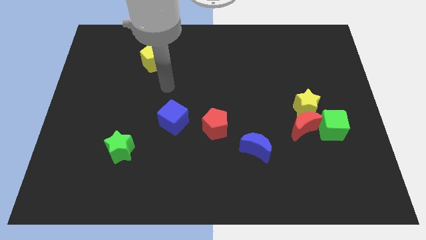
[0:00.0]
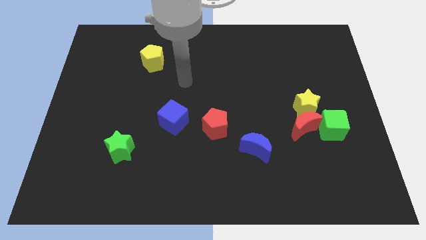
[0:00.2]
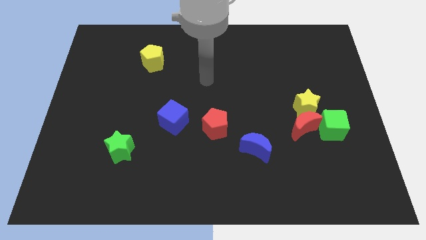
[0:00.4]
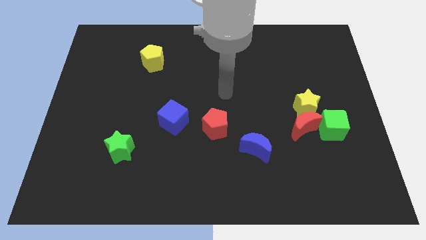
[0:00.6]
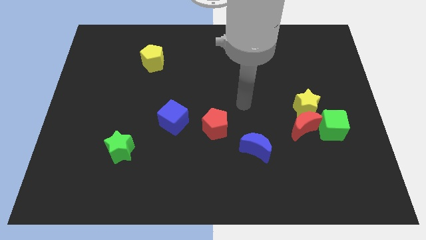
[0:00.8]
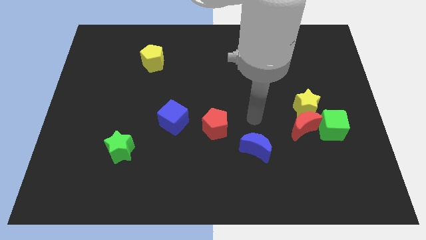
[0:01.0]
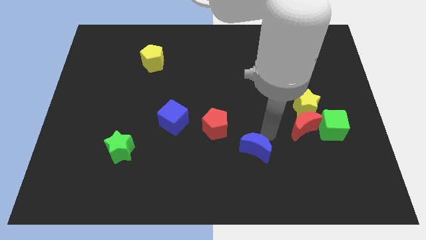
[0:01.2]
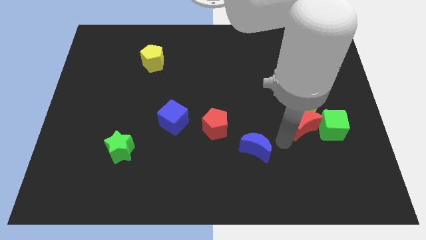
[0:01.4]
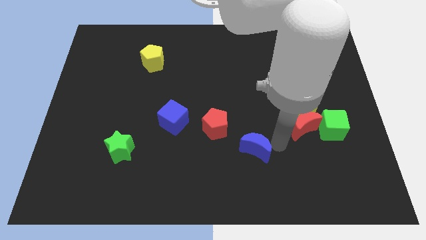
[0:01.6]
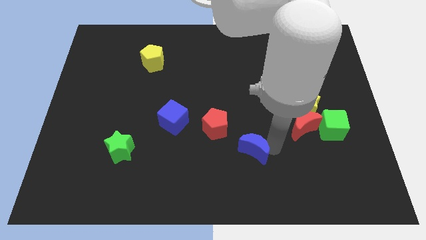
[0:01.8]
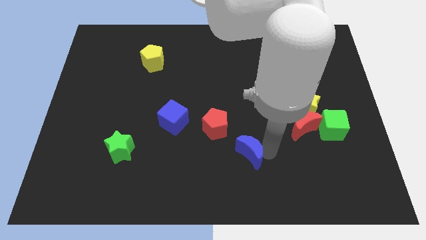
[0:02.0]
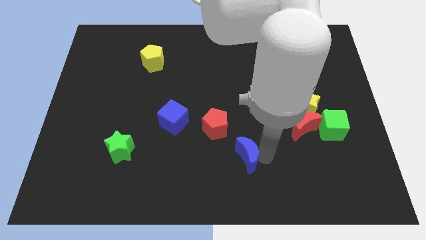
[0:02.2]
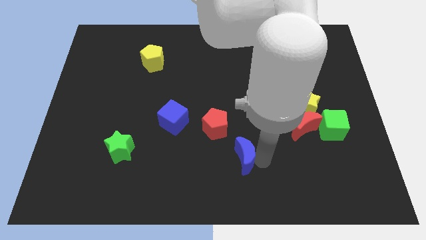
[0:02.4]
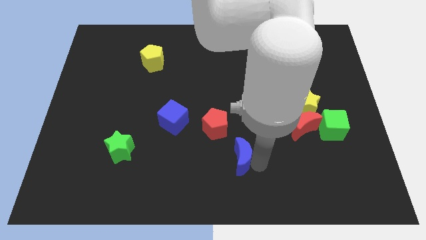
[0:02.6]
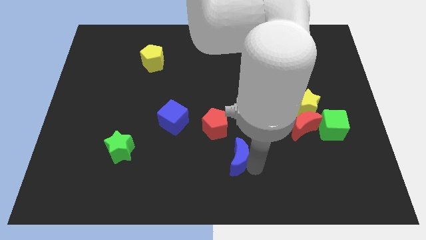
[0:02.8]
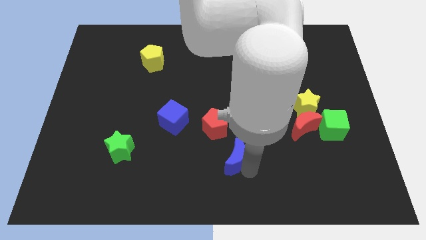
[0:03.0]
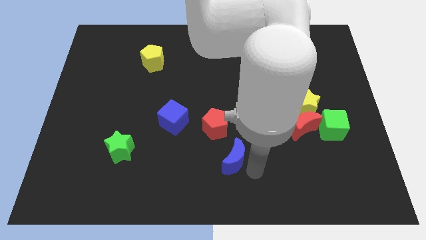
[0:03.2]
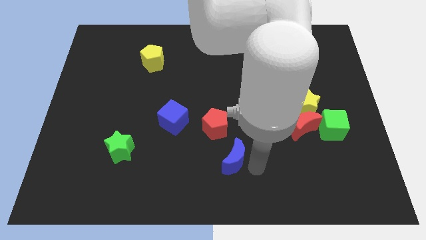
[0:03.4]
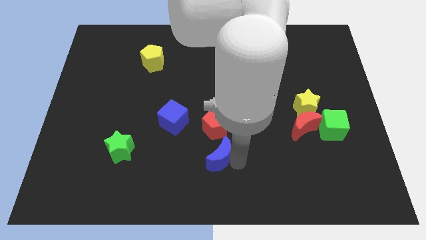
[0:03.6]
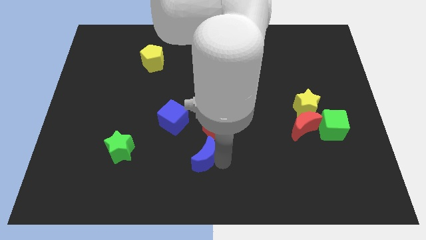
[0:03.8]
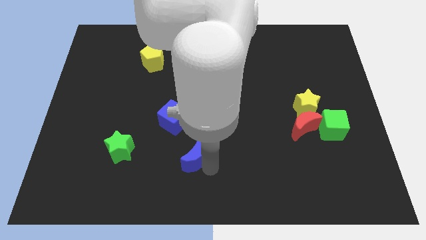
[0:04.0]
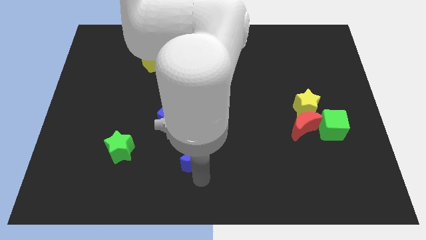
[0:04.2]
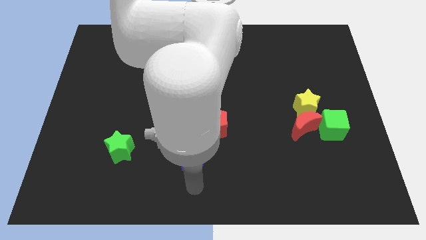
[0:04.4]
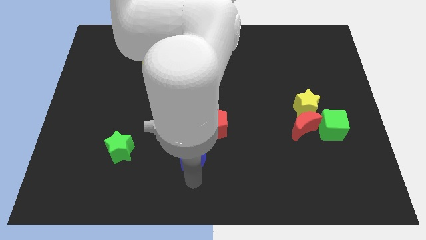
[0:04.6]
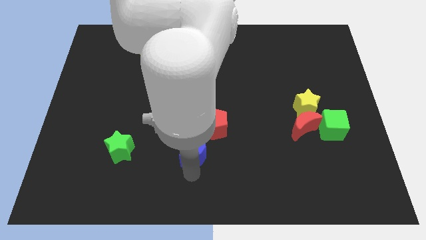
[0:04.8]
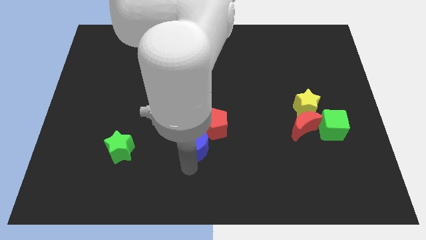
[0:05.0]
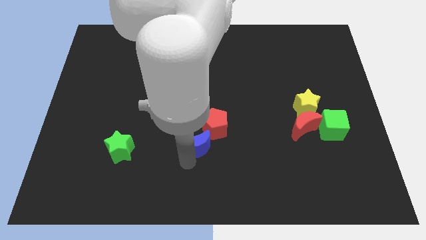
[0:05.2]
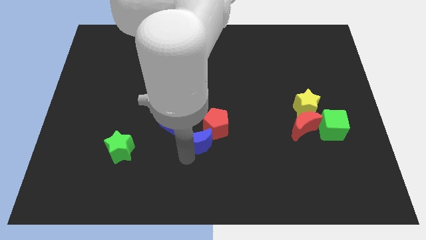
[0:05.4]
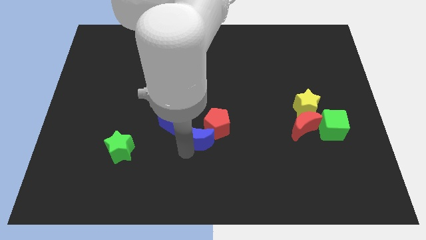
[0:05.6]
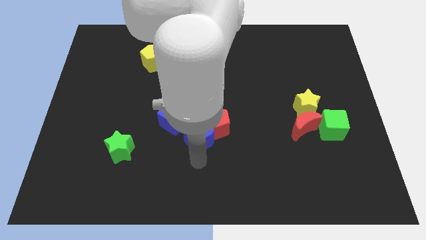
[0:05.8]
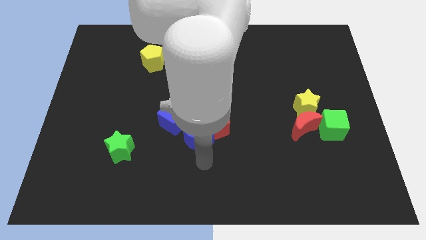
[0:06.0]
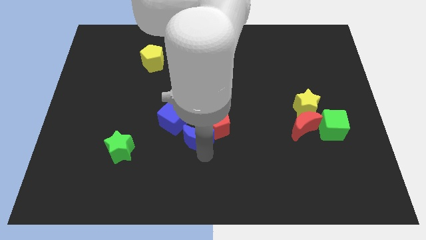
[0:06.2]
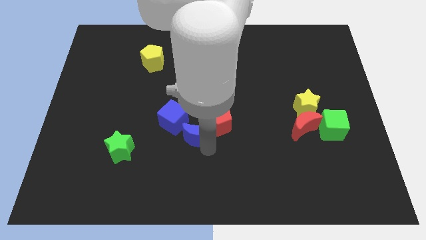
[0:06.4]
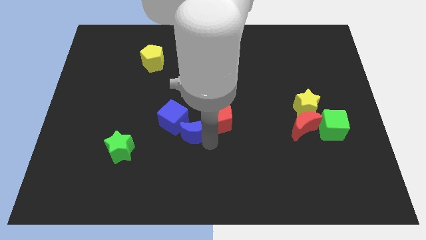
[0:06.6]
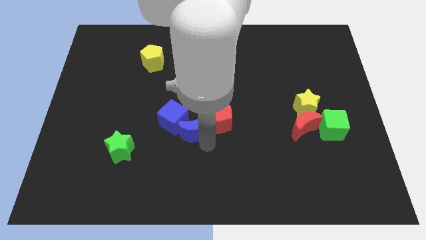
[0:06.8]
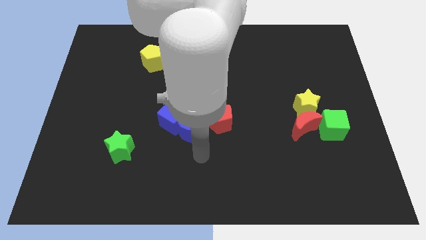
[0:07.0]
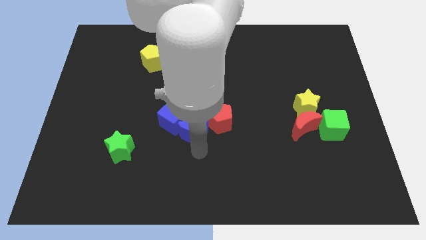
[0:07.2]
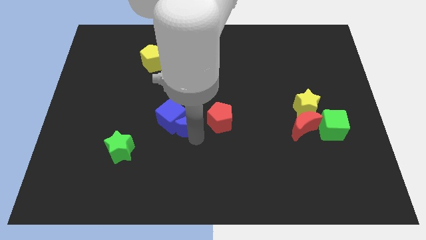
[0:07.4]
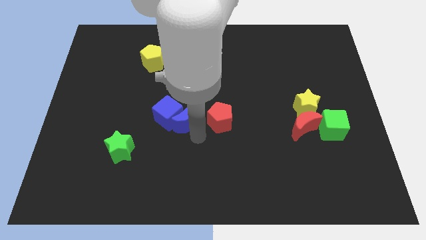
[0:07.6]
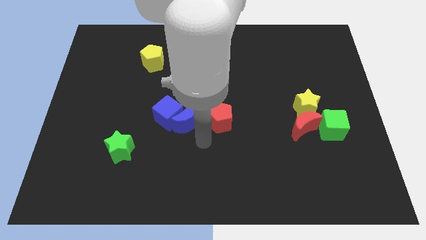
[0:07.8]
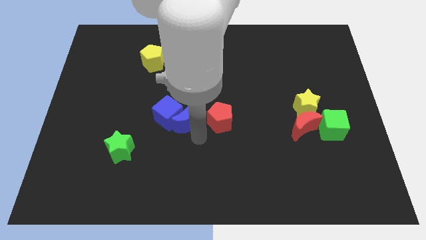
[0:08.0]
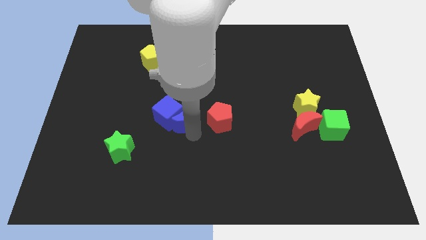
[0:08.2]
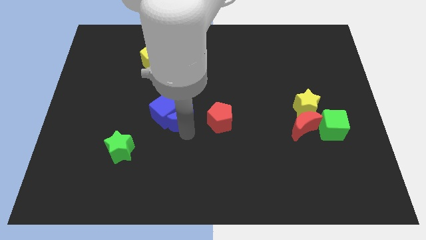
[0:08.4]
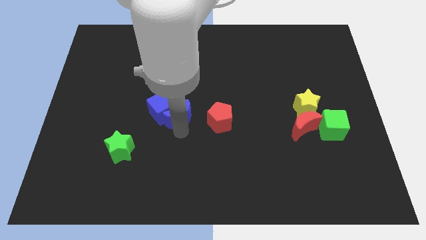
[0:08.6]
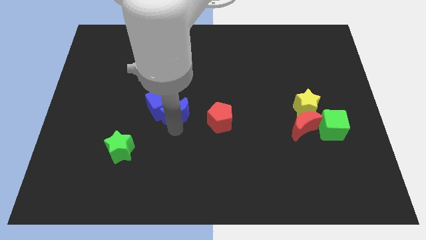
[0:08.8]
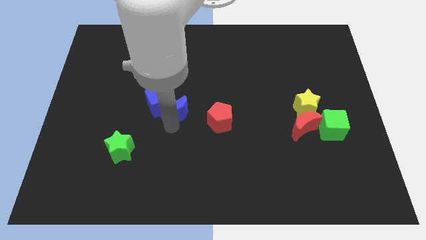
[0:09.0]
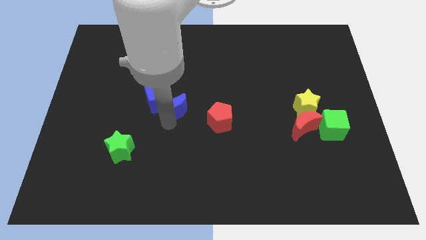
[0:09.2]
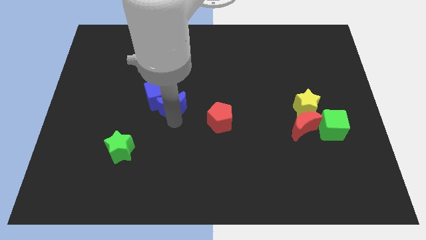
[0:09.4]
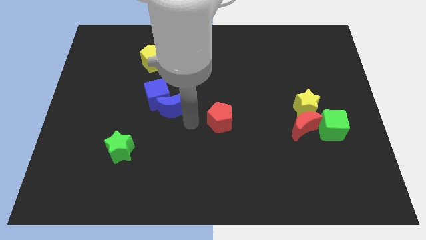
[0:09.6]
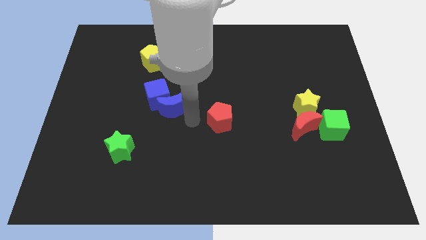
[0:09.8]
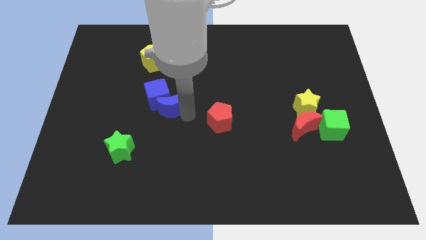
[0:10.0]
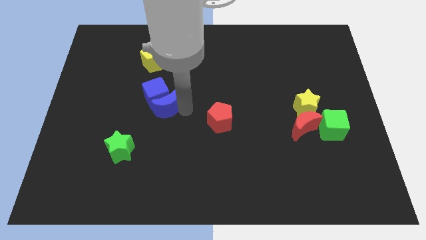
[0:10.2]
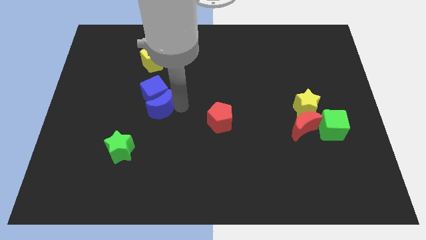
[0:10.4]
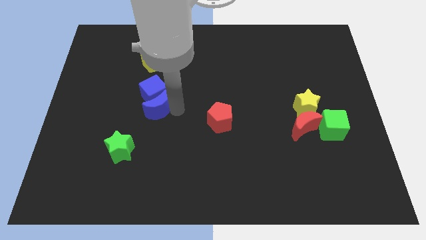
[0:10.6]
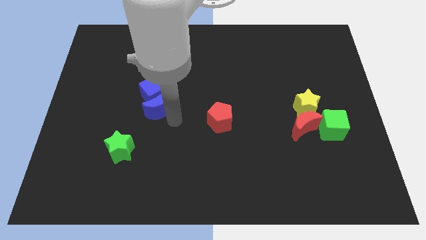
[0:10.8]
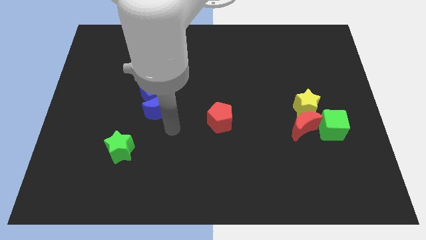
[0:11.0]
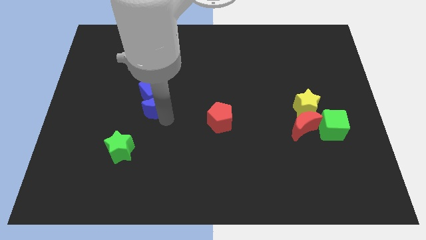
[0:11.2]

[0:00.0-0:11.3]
put the blue moon to the bottom of the yellow pentagon
